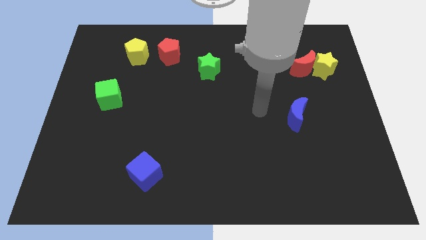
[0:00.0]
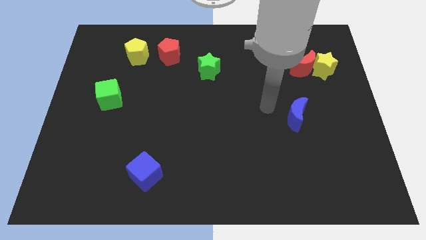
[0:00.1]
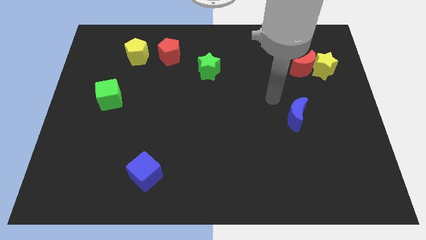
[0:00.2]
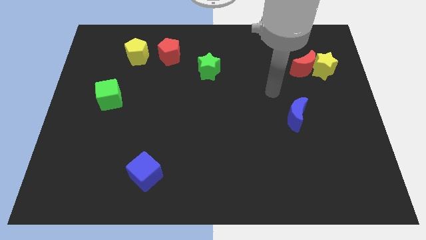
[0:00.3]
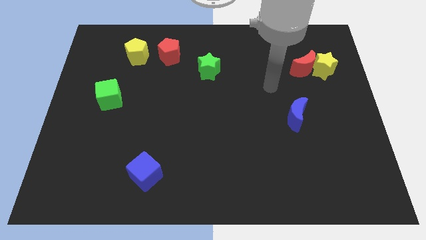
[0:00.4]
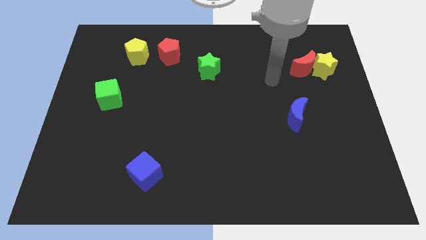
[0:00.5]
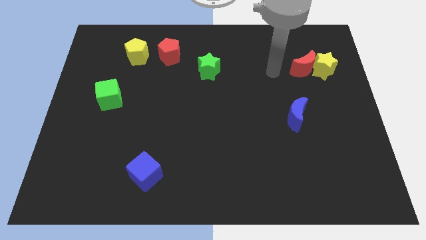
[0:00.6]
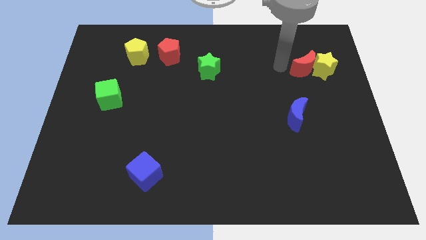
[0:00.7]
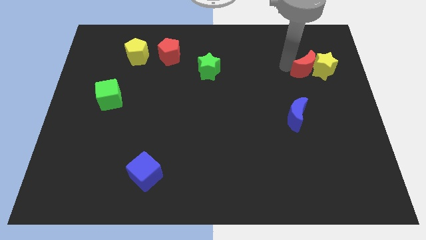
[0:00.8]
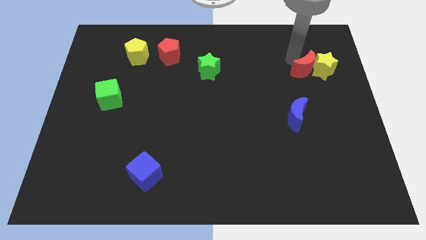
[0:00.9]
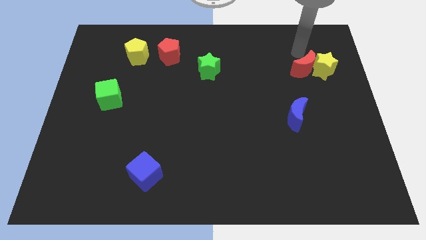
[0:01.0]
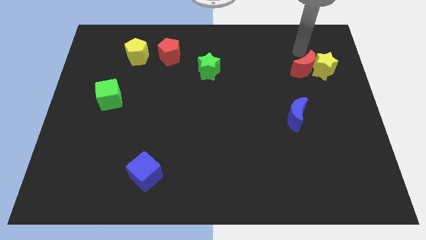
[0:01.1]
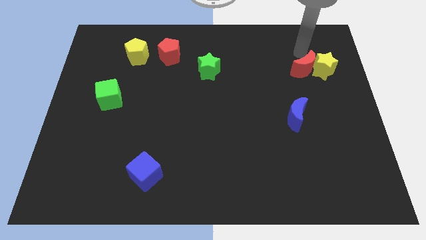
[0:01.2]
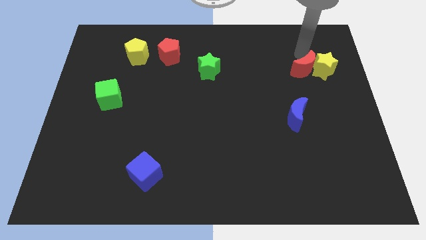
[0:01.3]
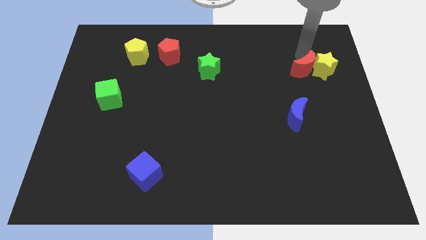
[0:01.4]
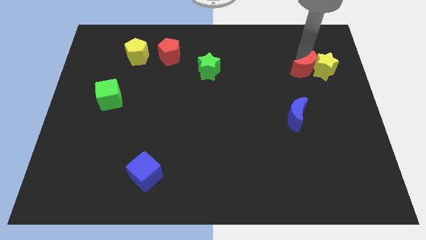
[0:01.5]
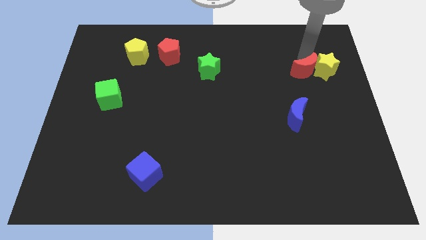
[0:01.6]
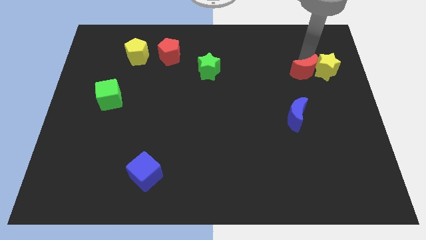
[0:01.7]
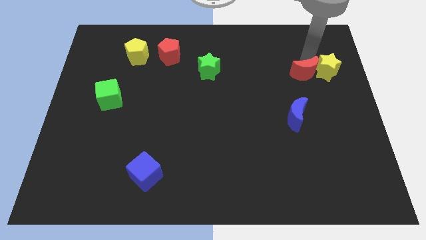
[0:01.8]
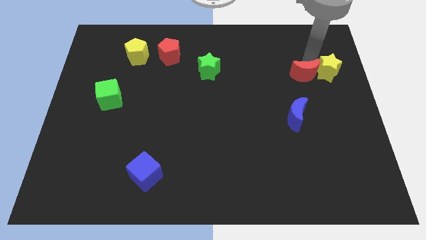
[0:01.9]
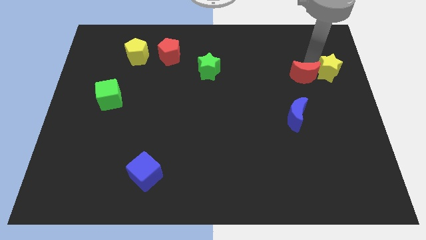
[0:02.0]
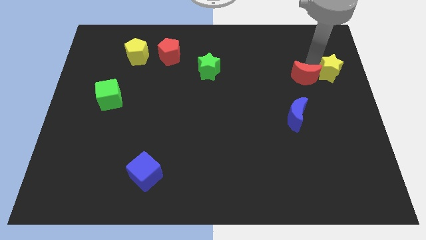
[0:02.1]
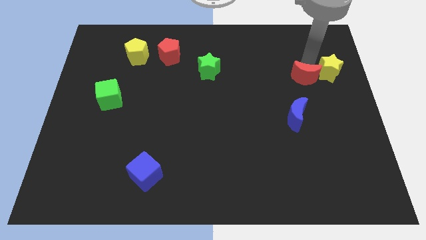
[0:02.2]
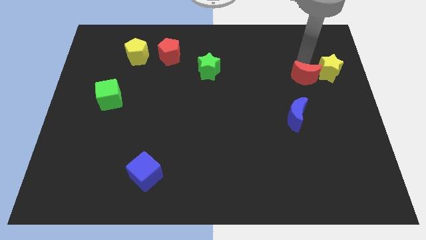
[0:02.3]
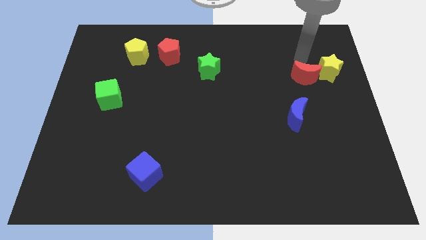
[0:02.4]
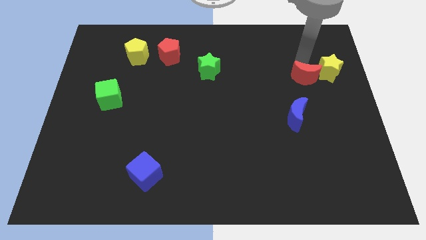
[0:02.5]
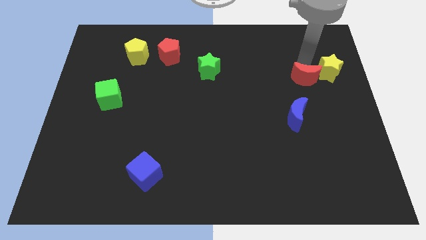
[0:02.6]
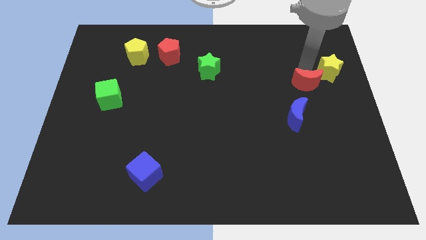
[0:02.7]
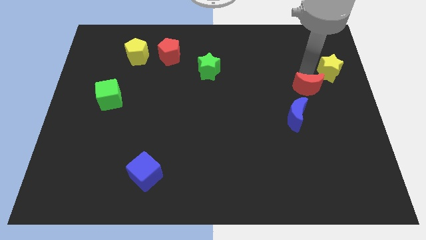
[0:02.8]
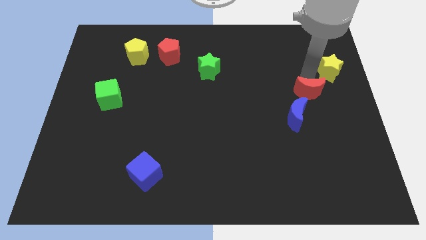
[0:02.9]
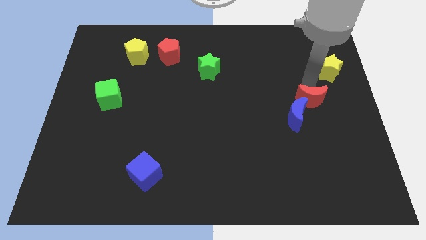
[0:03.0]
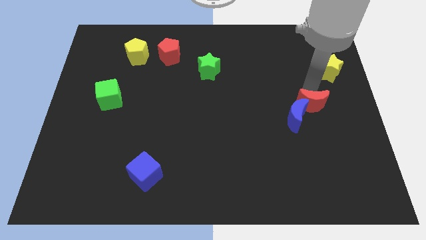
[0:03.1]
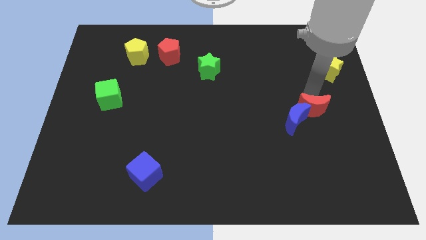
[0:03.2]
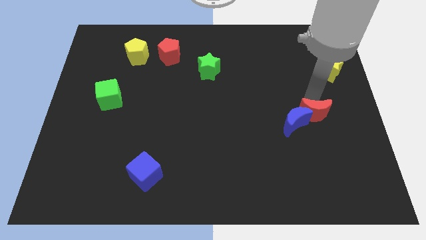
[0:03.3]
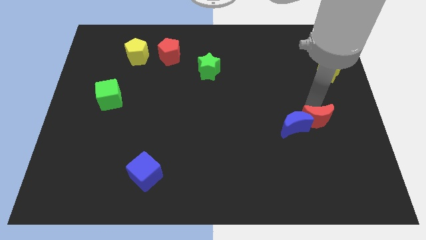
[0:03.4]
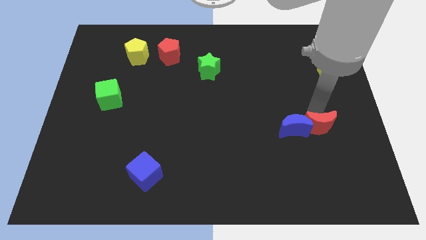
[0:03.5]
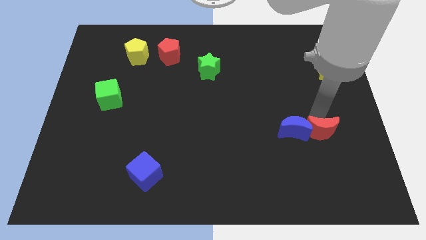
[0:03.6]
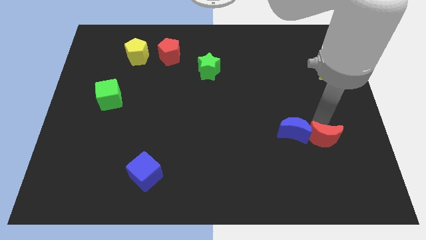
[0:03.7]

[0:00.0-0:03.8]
slide the red moon down

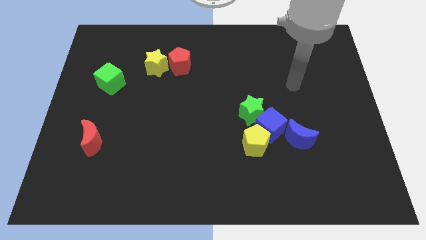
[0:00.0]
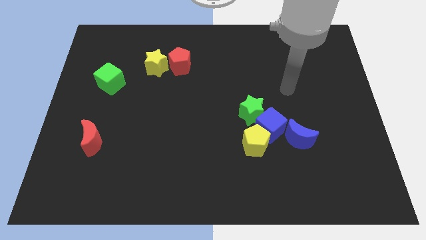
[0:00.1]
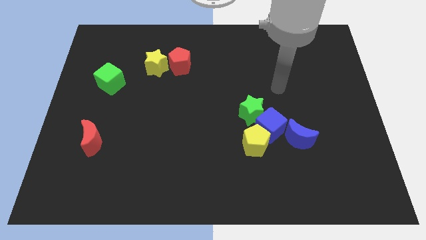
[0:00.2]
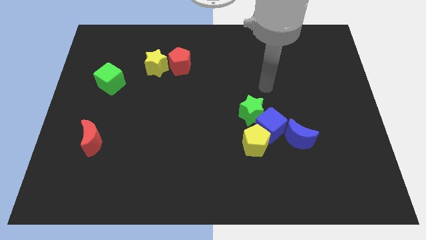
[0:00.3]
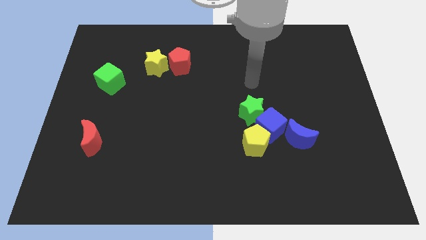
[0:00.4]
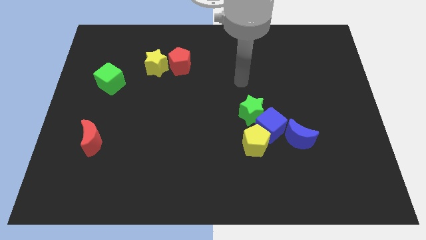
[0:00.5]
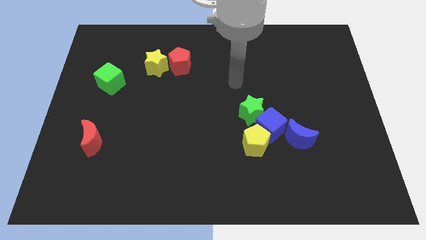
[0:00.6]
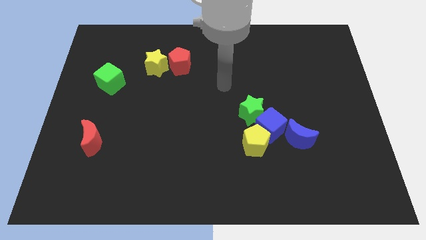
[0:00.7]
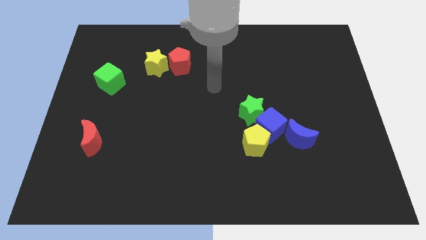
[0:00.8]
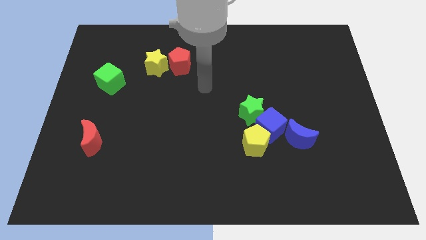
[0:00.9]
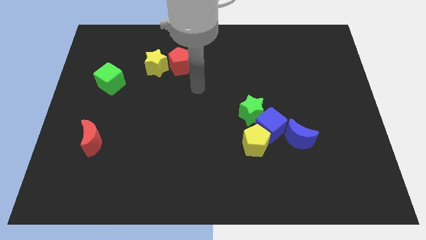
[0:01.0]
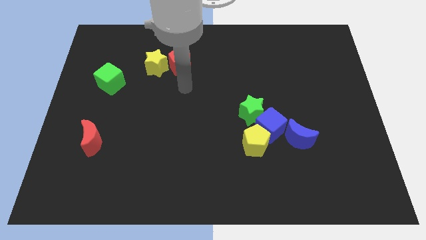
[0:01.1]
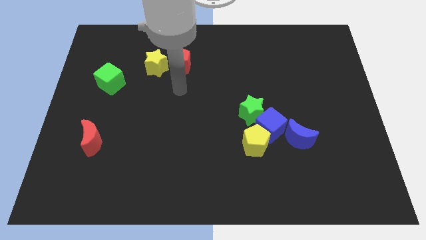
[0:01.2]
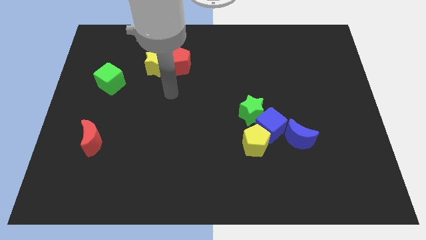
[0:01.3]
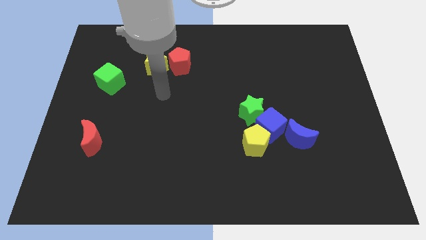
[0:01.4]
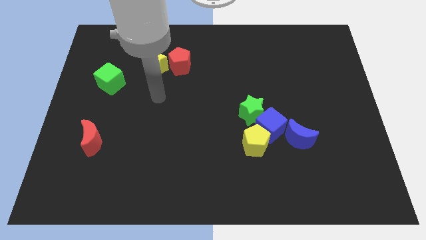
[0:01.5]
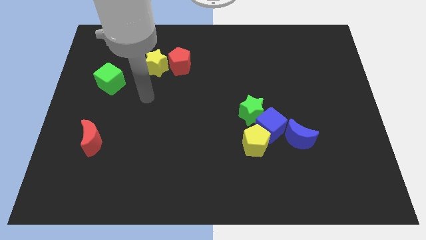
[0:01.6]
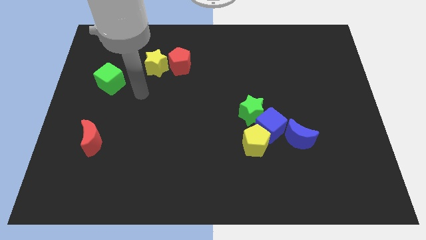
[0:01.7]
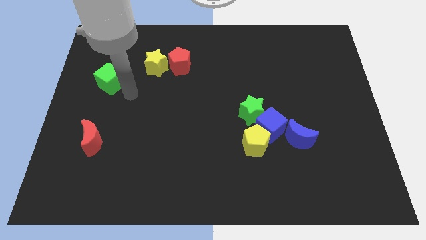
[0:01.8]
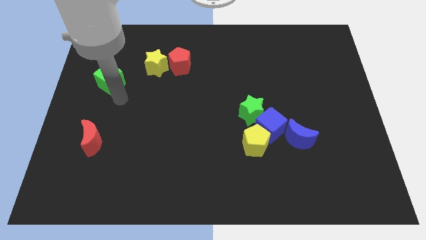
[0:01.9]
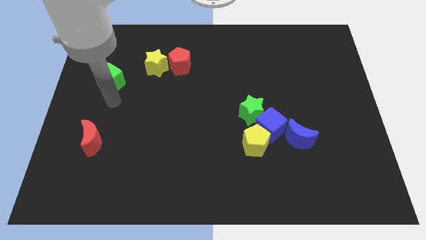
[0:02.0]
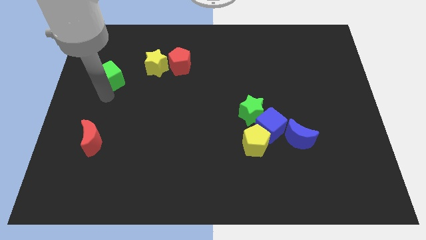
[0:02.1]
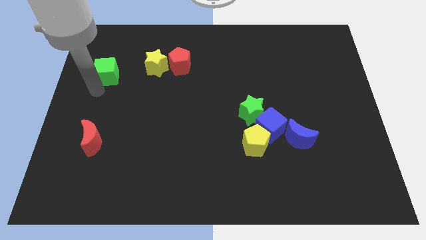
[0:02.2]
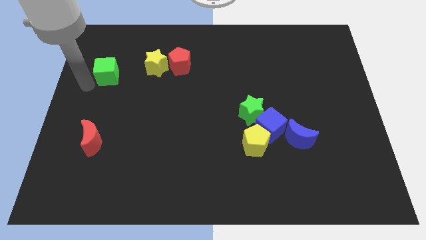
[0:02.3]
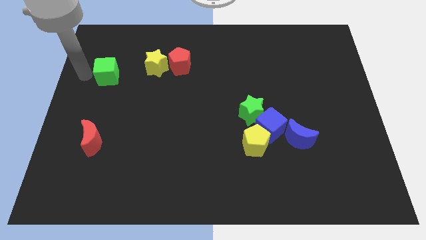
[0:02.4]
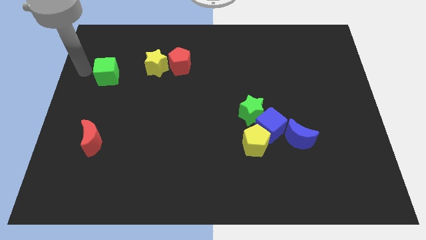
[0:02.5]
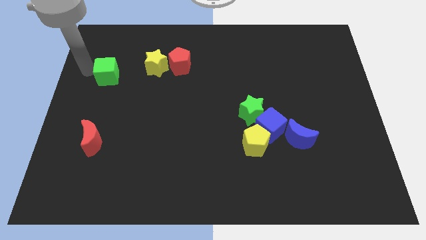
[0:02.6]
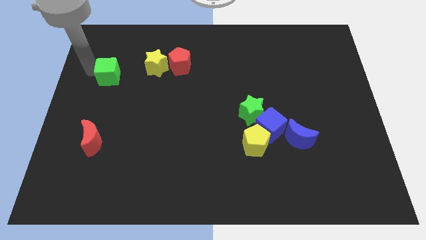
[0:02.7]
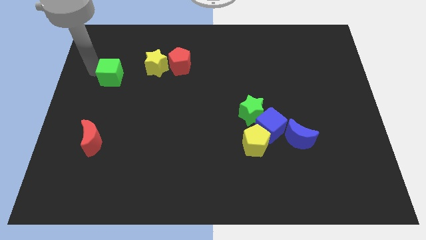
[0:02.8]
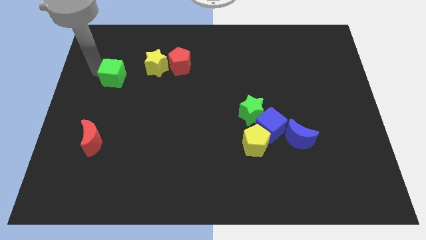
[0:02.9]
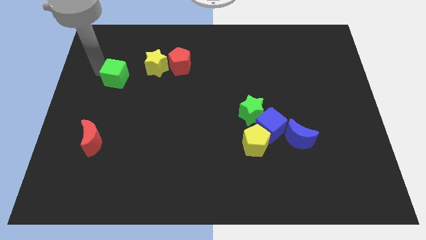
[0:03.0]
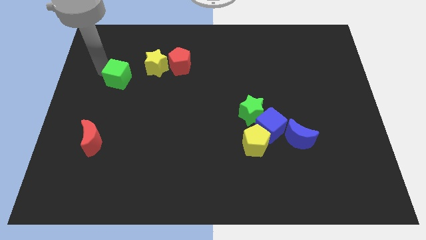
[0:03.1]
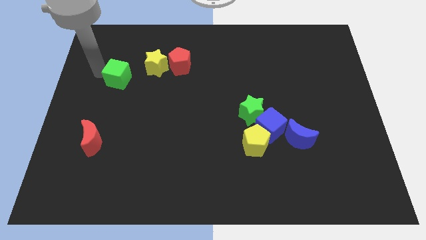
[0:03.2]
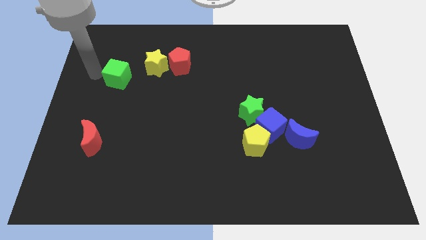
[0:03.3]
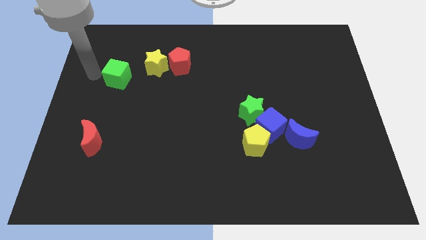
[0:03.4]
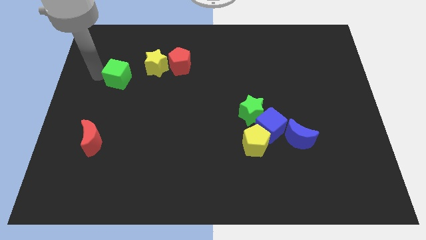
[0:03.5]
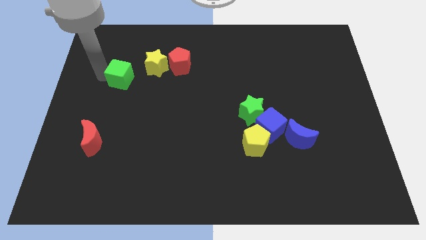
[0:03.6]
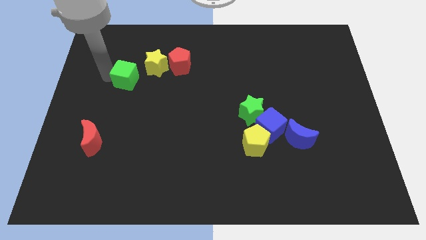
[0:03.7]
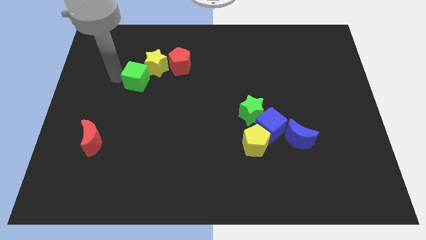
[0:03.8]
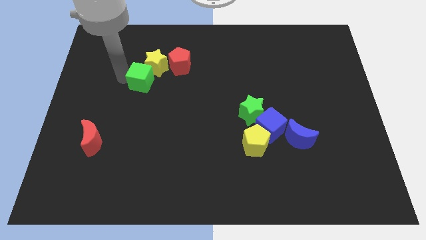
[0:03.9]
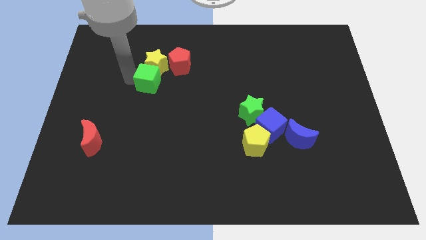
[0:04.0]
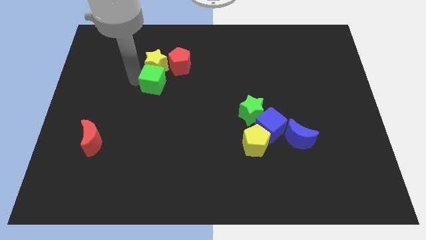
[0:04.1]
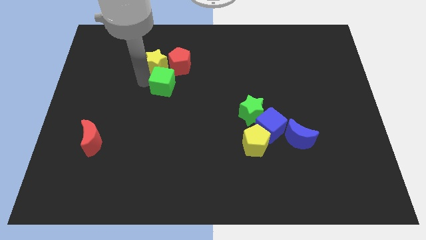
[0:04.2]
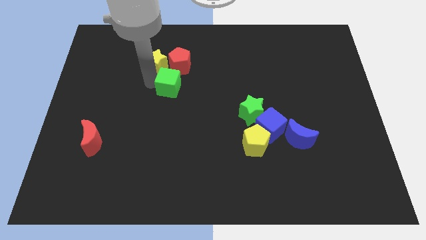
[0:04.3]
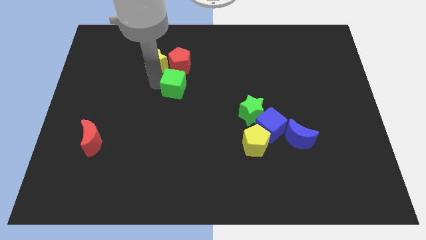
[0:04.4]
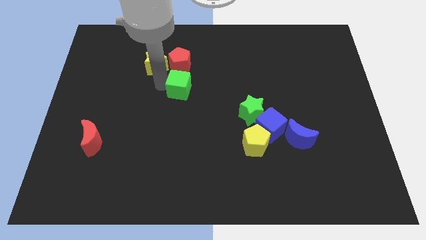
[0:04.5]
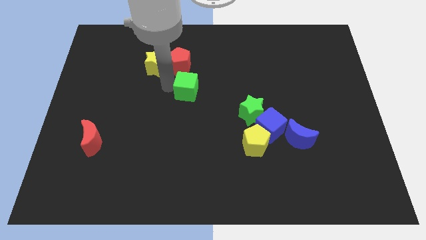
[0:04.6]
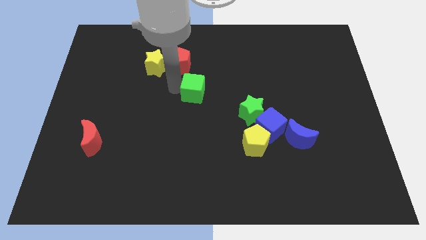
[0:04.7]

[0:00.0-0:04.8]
move the green cube to the right
